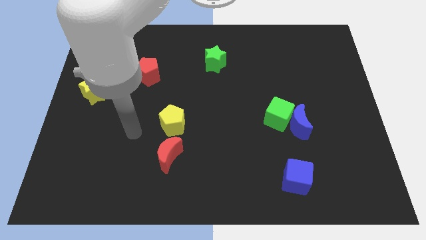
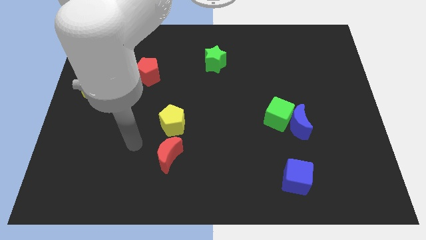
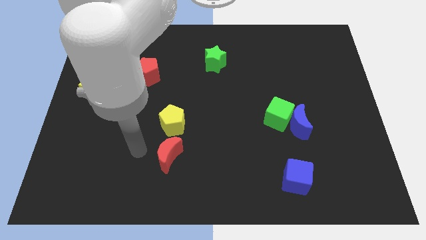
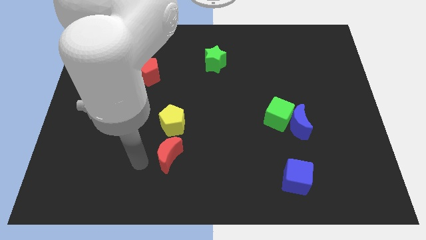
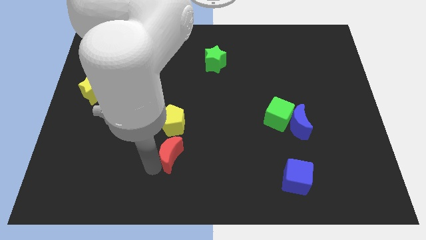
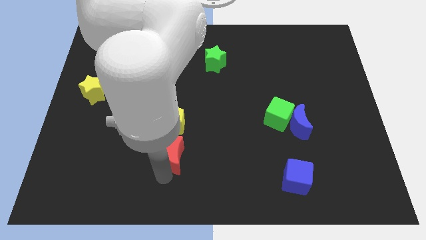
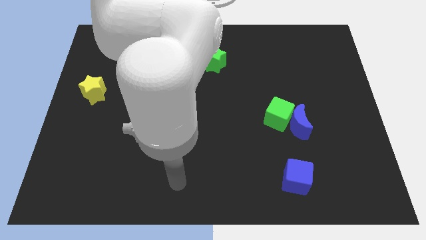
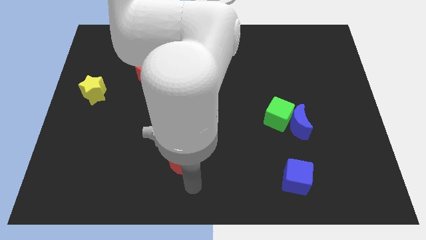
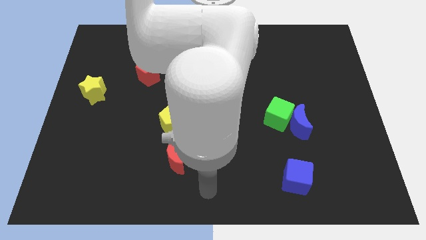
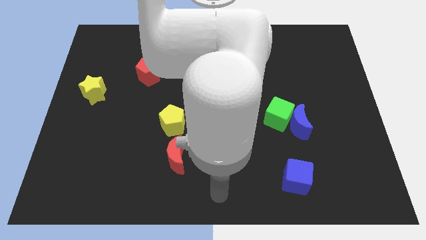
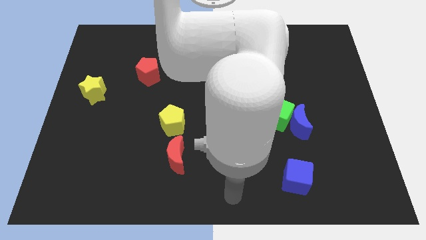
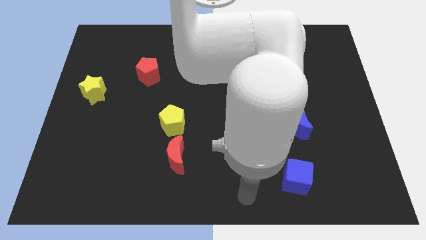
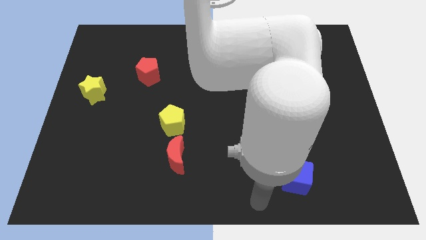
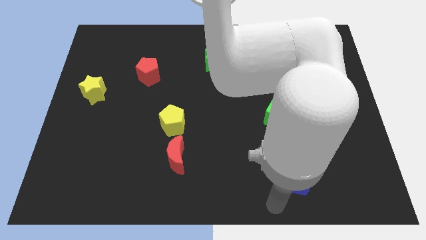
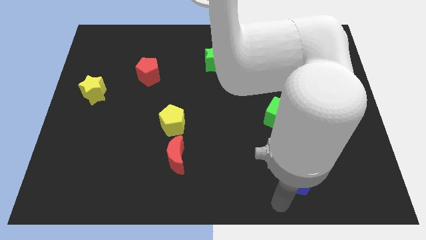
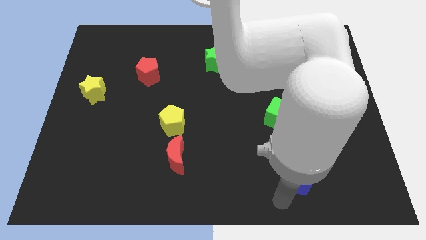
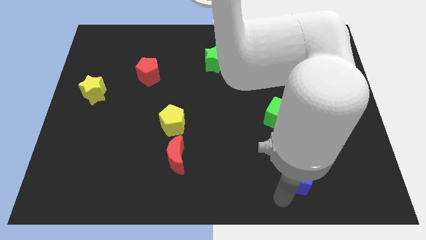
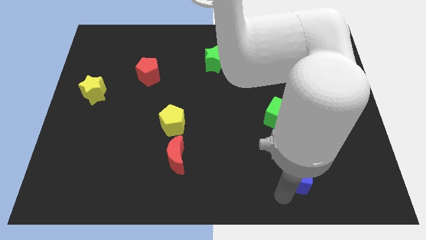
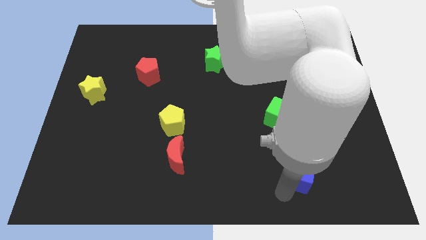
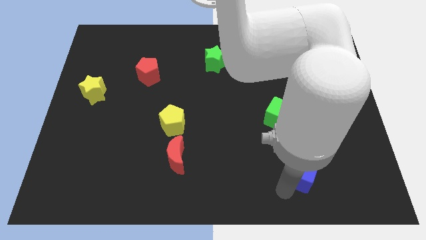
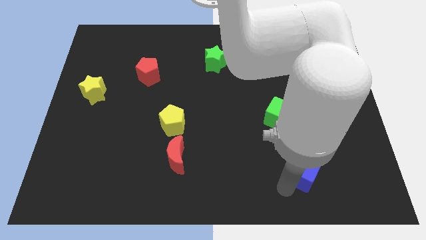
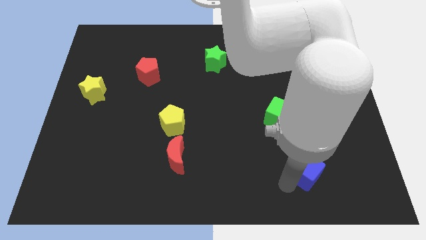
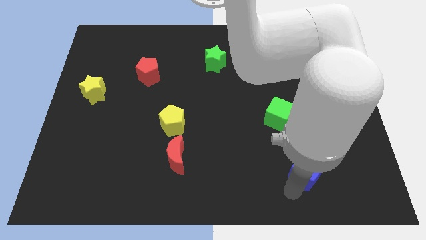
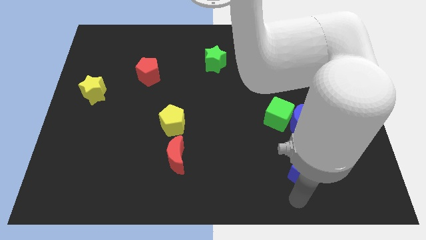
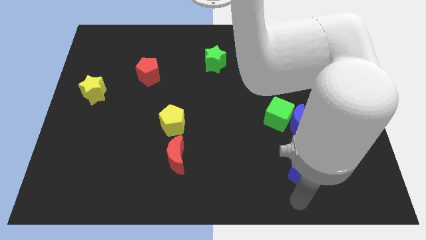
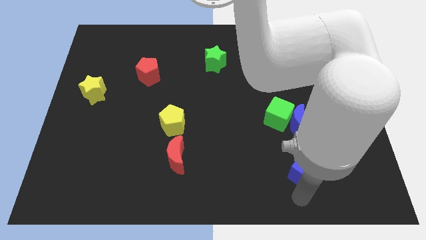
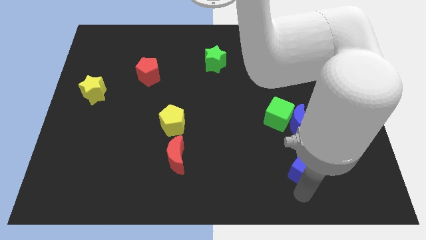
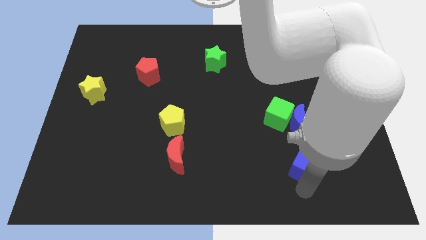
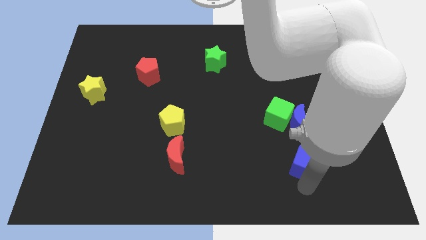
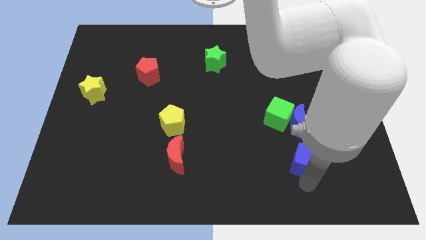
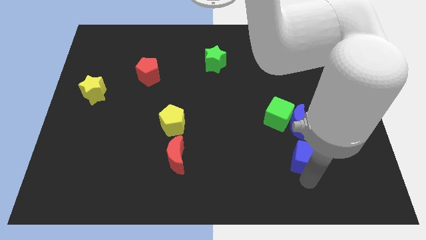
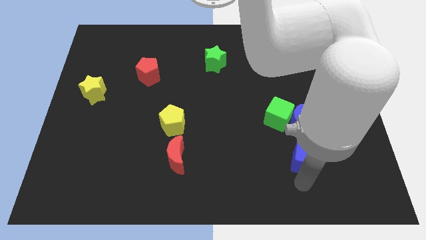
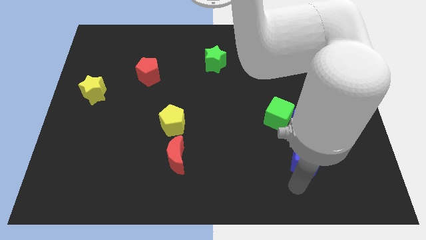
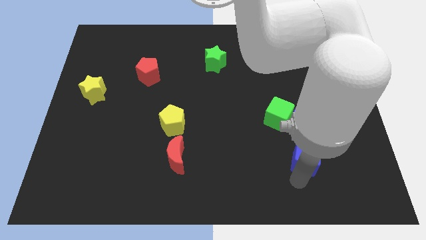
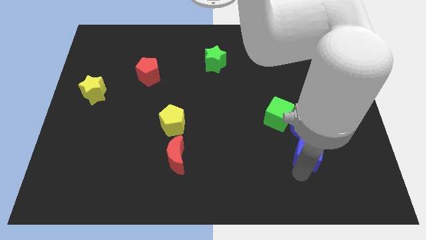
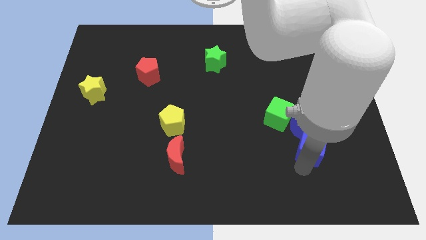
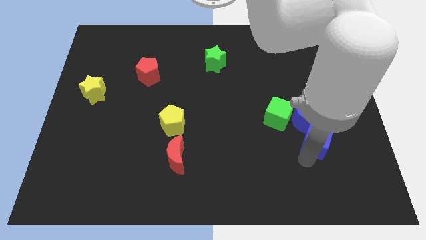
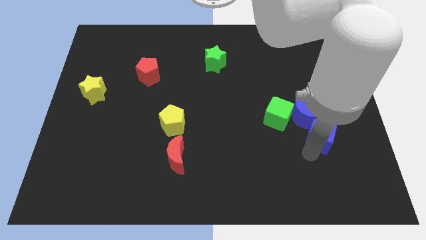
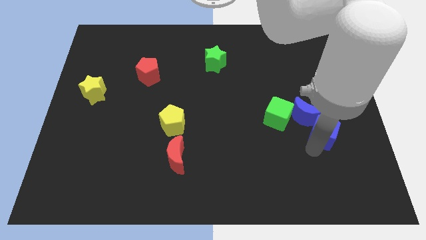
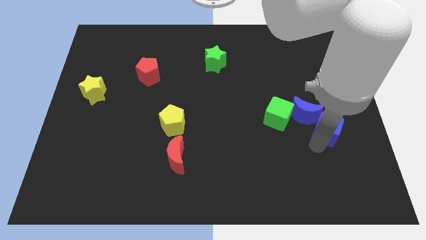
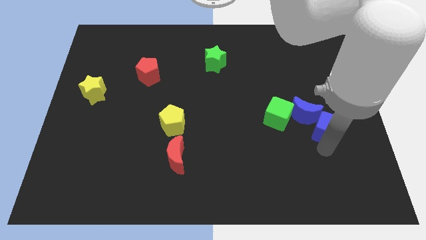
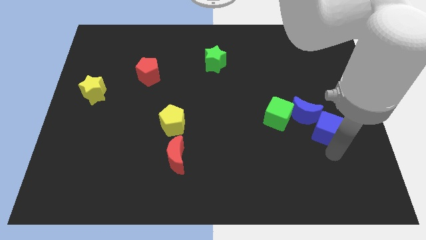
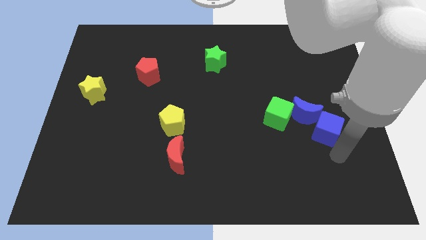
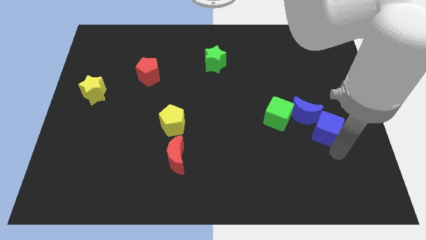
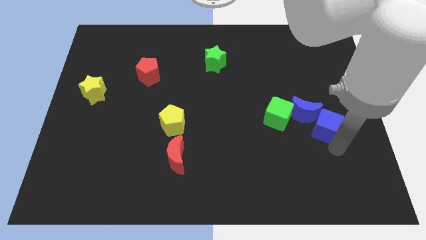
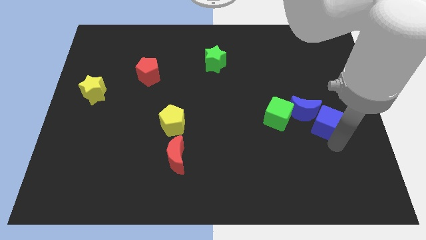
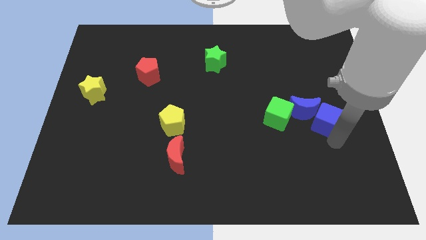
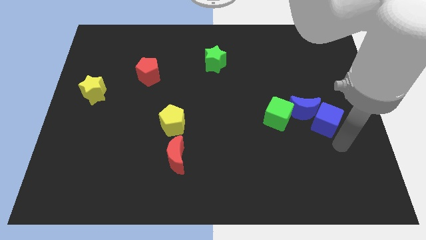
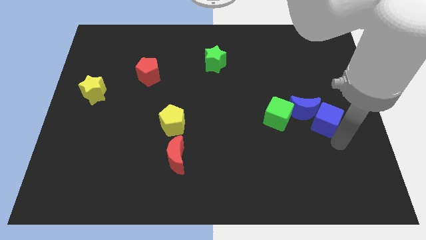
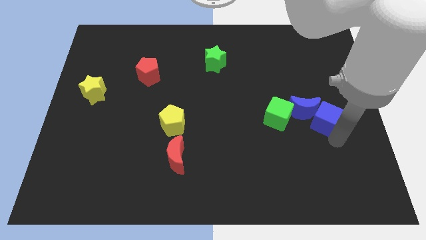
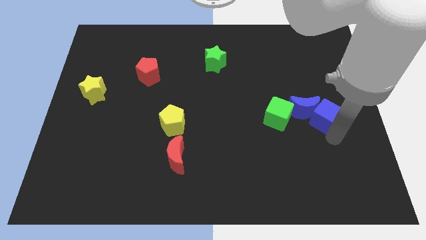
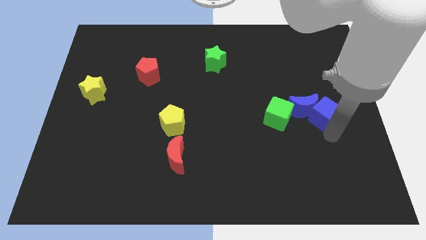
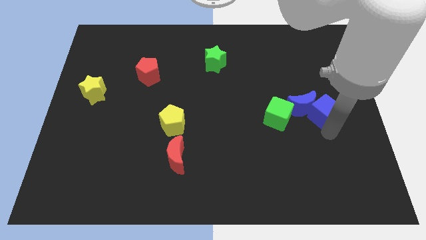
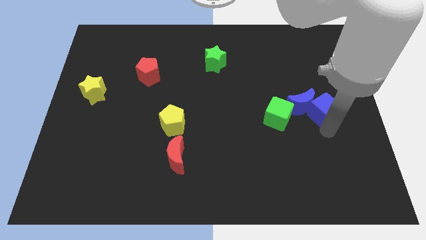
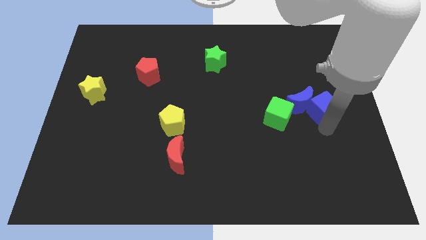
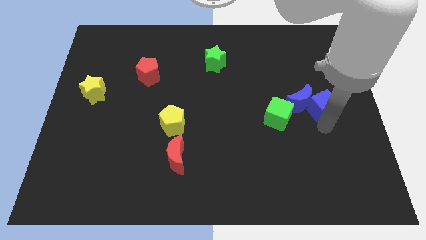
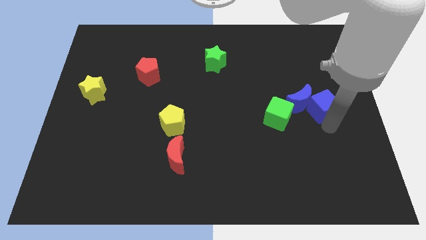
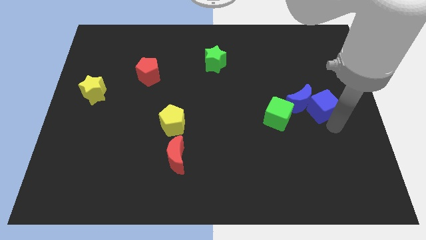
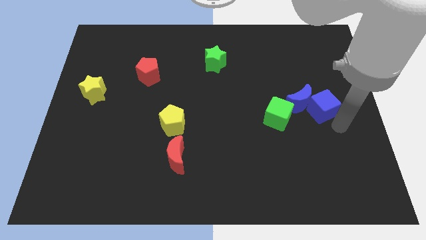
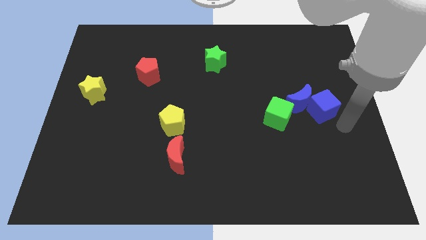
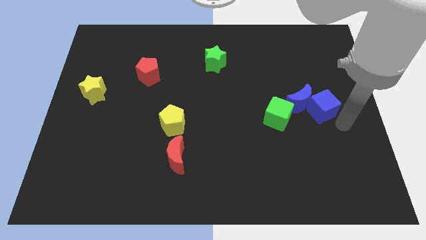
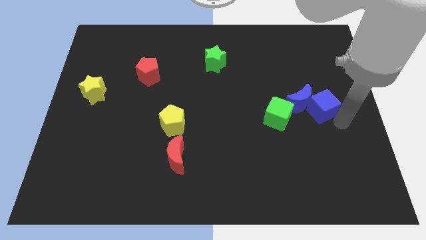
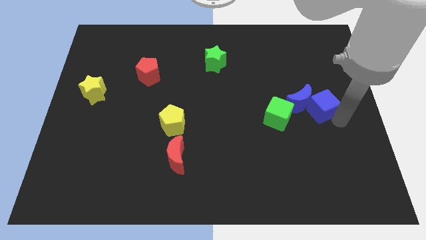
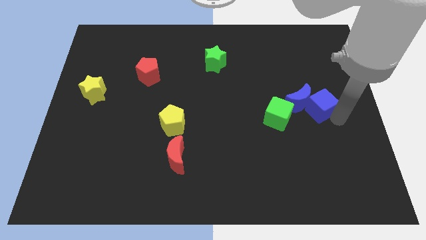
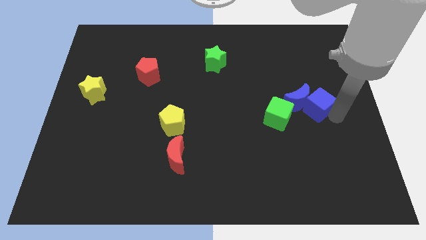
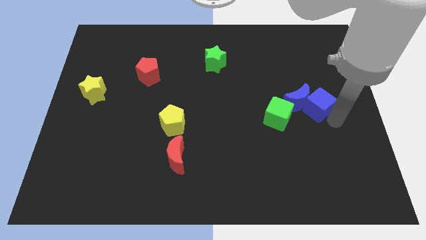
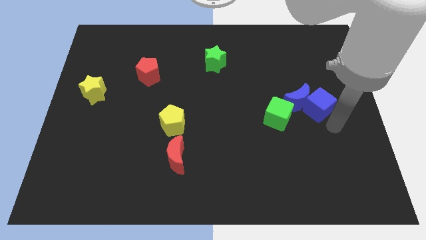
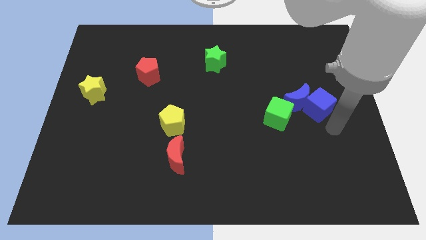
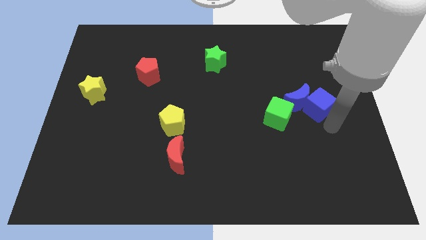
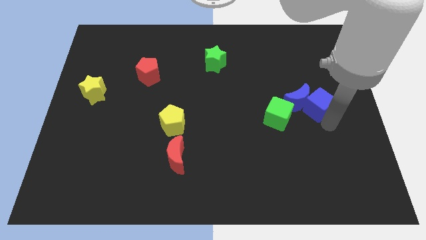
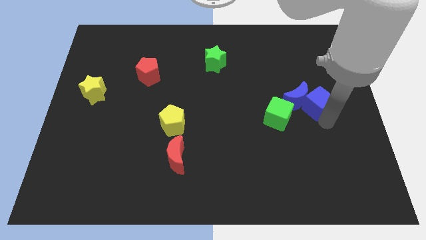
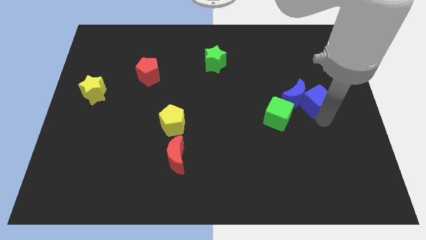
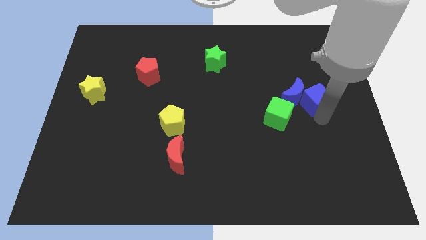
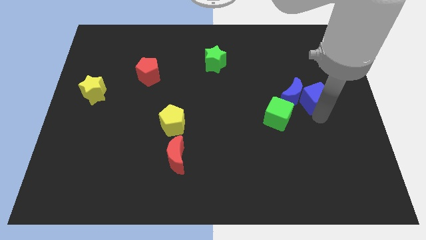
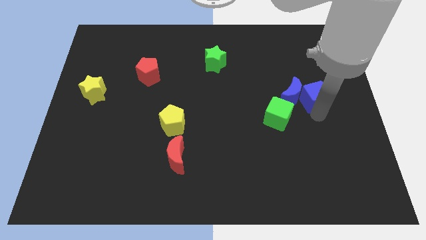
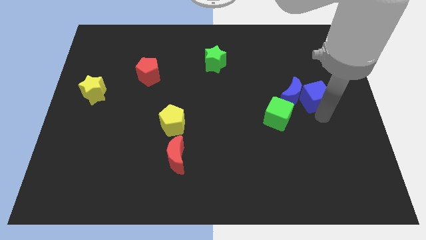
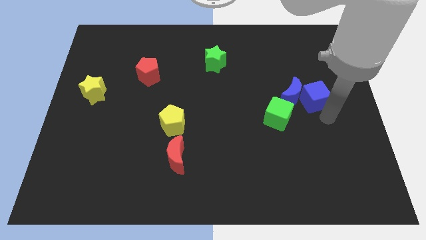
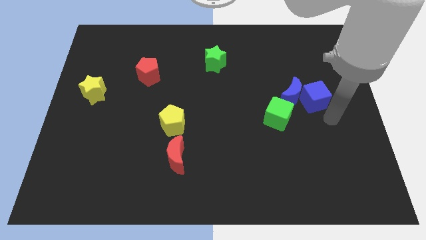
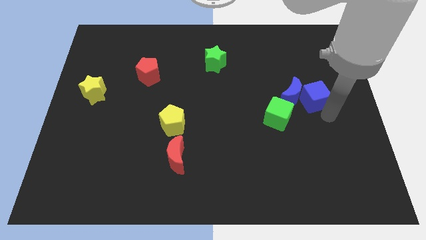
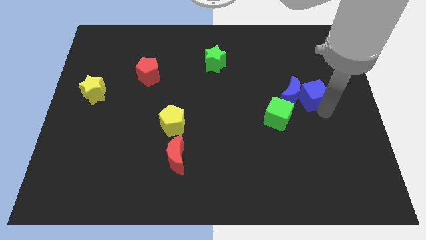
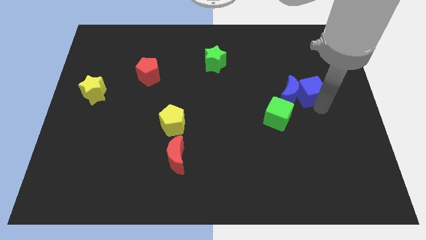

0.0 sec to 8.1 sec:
move the blue cube upwards
